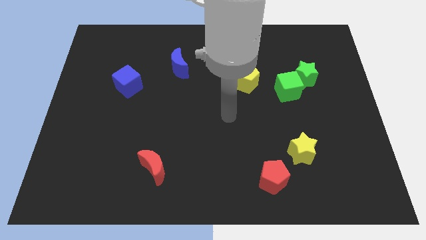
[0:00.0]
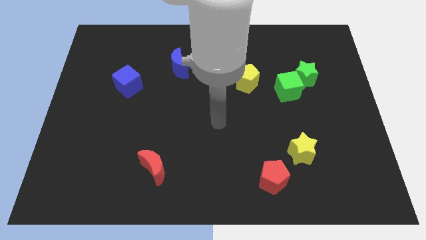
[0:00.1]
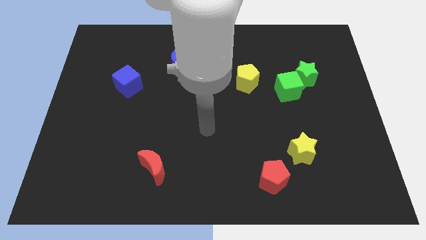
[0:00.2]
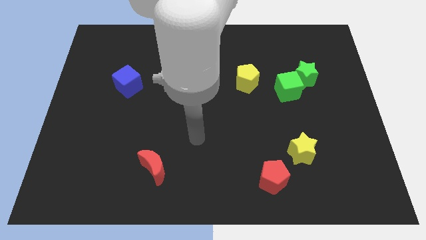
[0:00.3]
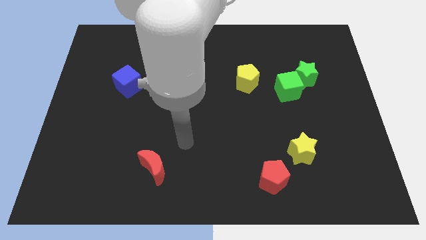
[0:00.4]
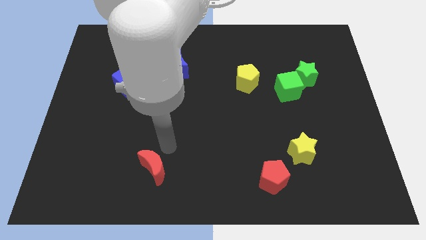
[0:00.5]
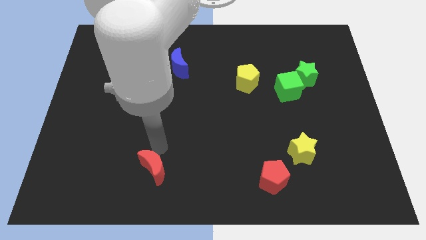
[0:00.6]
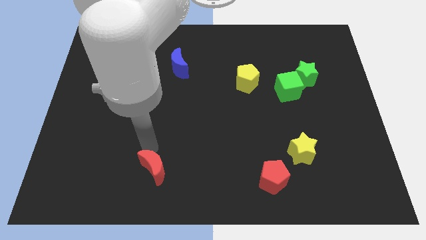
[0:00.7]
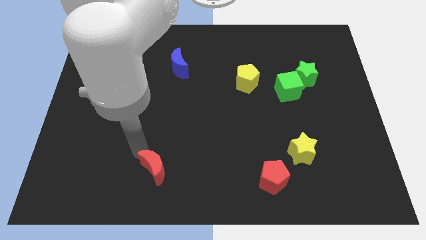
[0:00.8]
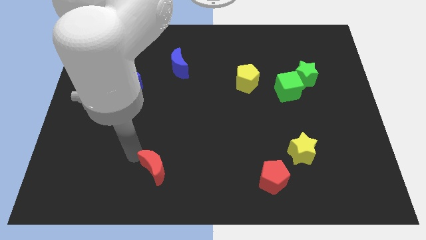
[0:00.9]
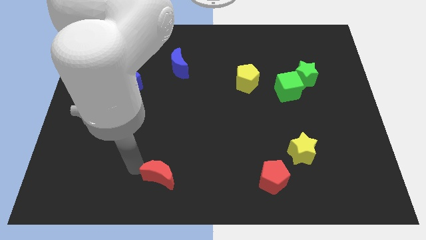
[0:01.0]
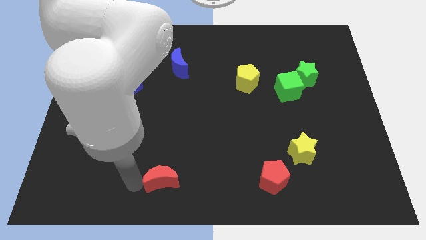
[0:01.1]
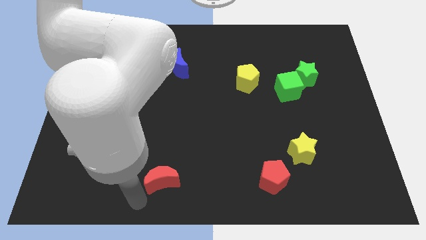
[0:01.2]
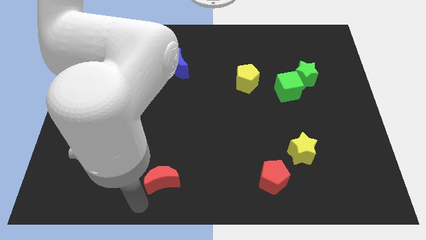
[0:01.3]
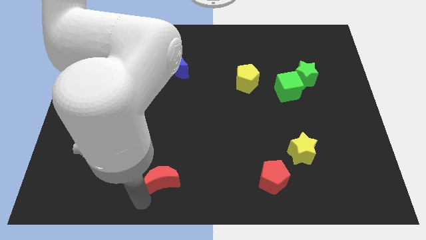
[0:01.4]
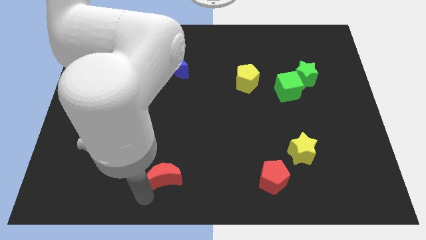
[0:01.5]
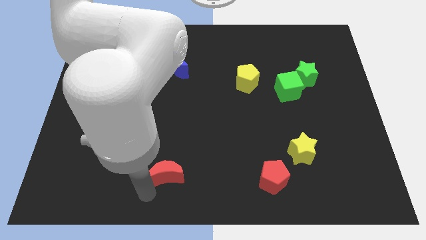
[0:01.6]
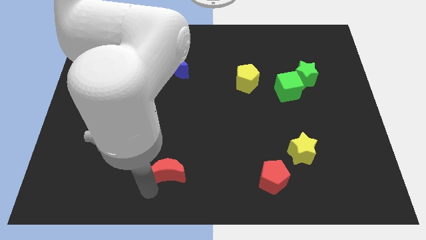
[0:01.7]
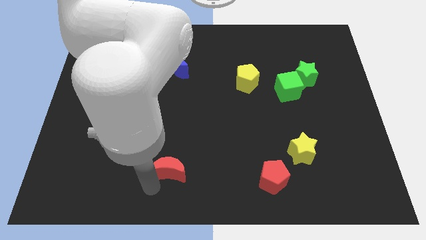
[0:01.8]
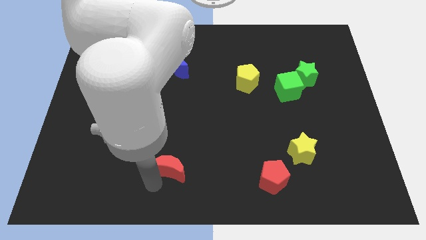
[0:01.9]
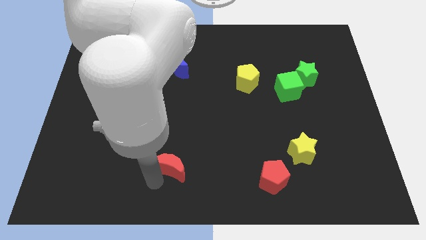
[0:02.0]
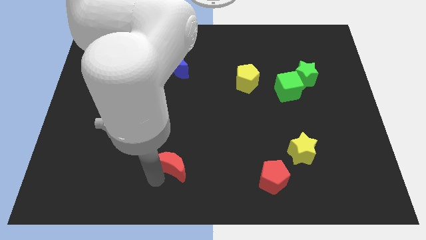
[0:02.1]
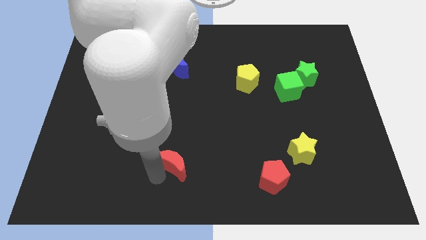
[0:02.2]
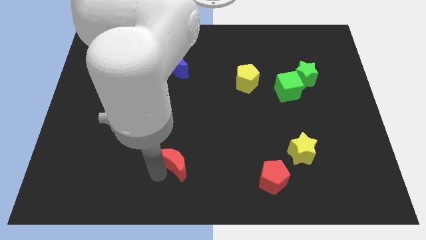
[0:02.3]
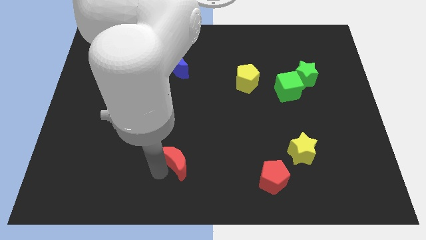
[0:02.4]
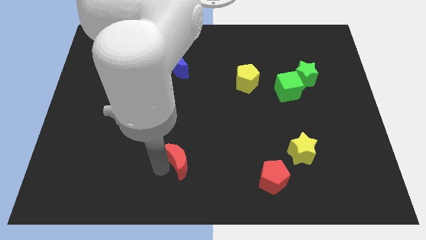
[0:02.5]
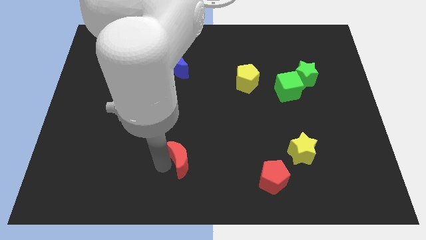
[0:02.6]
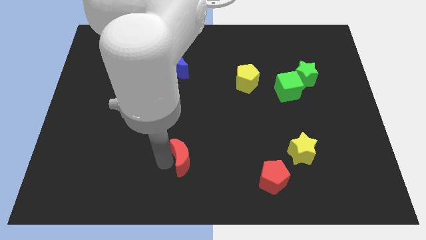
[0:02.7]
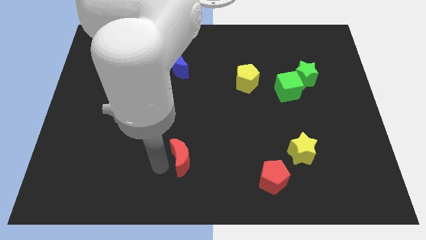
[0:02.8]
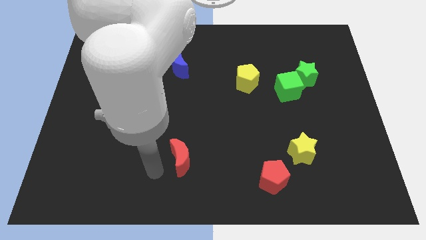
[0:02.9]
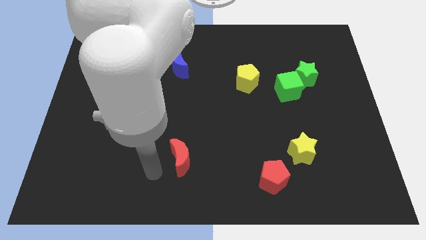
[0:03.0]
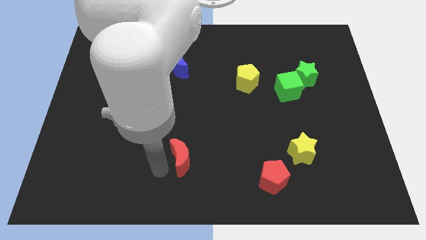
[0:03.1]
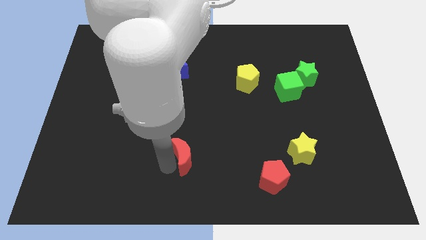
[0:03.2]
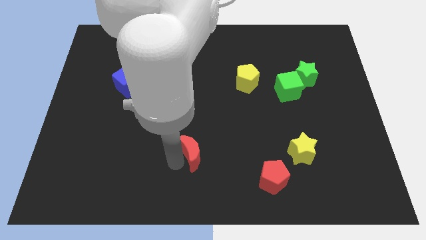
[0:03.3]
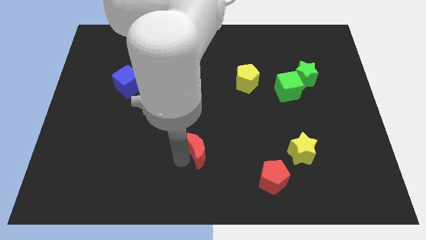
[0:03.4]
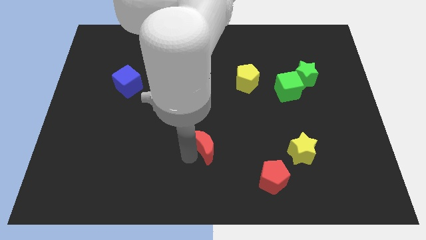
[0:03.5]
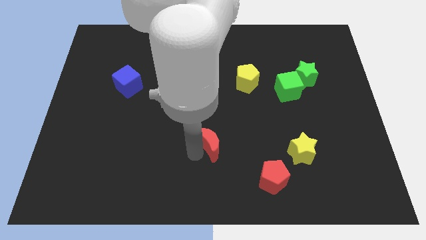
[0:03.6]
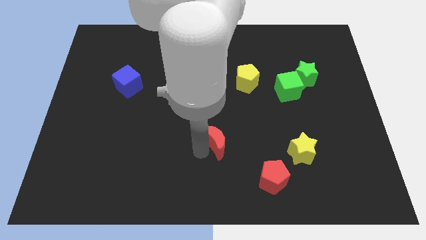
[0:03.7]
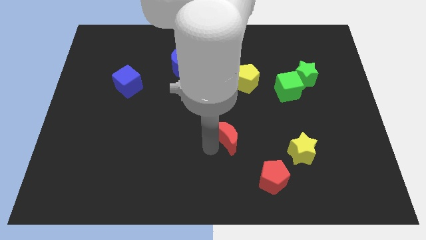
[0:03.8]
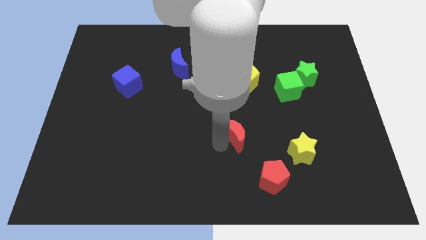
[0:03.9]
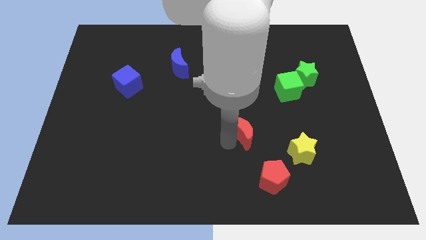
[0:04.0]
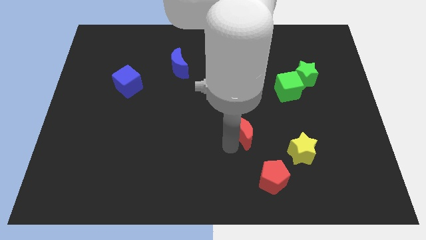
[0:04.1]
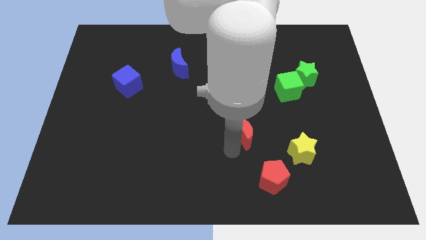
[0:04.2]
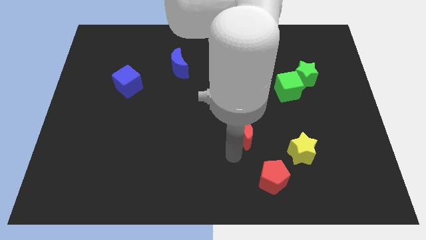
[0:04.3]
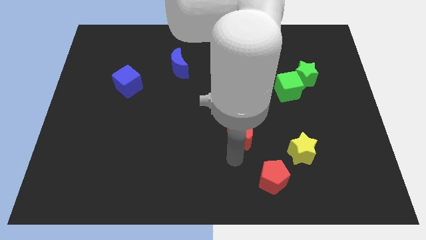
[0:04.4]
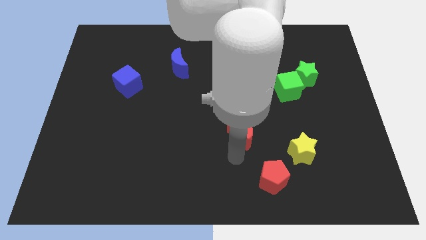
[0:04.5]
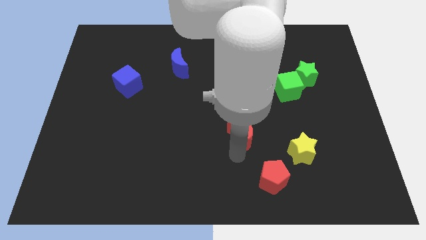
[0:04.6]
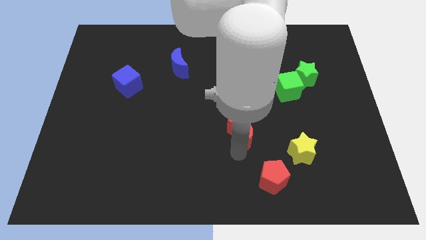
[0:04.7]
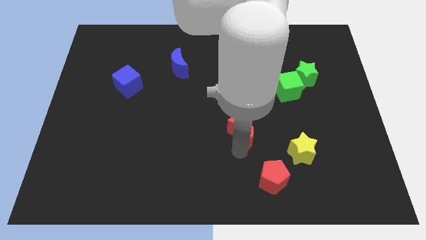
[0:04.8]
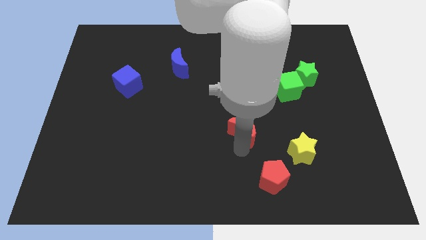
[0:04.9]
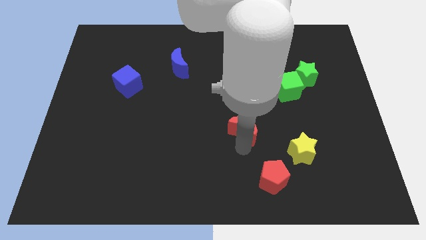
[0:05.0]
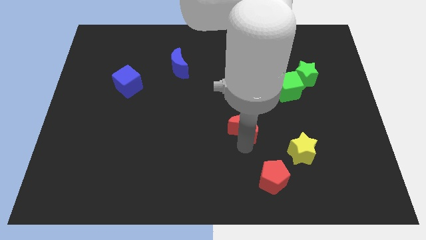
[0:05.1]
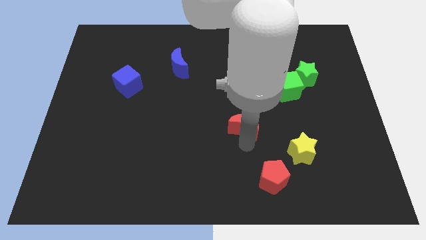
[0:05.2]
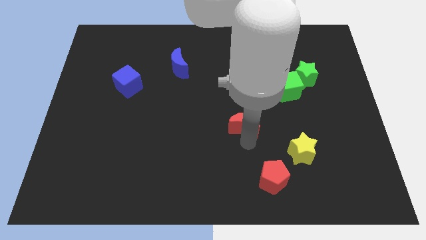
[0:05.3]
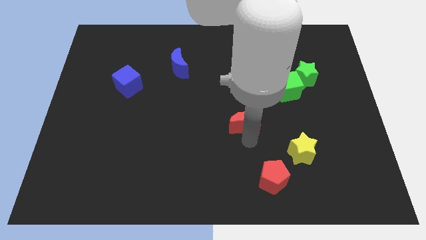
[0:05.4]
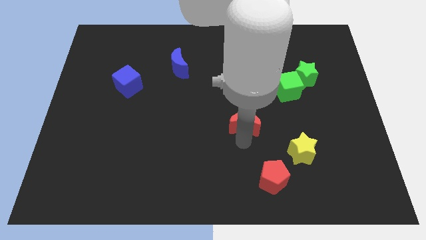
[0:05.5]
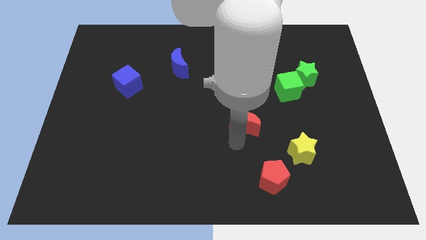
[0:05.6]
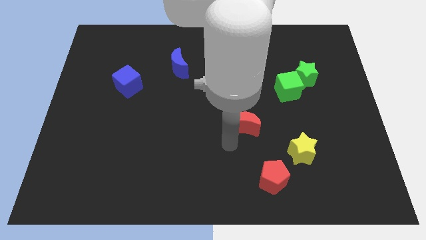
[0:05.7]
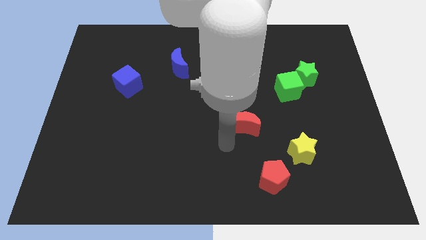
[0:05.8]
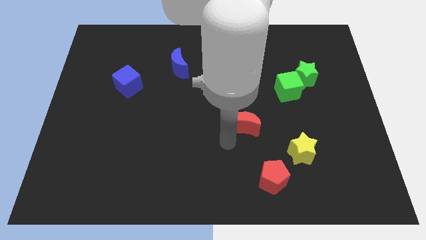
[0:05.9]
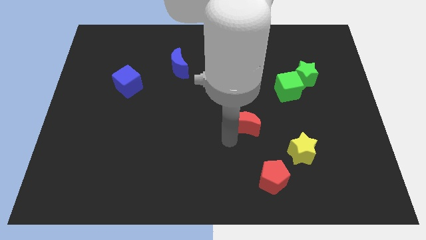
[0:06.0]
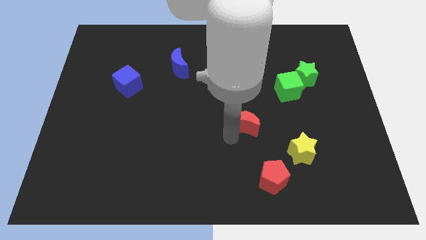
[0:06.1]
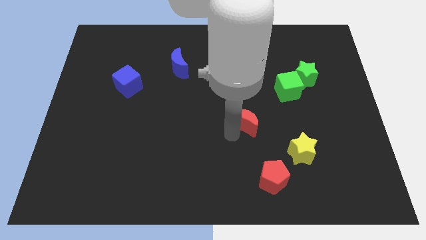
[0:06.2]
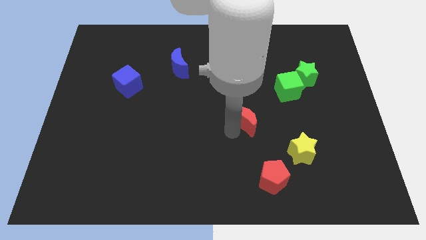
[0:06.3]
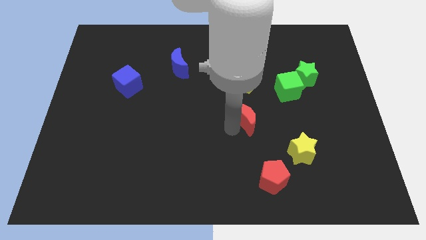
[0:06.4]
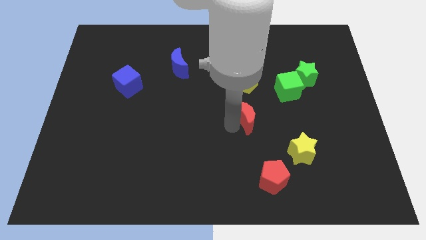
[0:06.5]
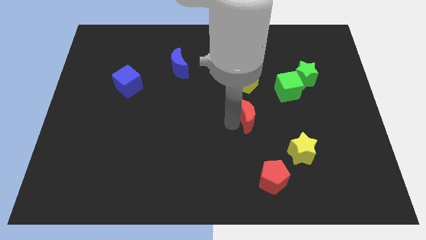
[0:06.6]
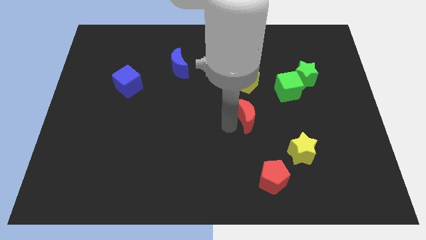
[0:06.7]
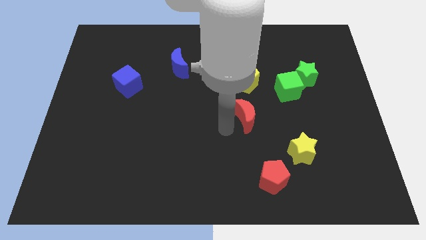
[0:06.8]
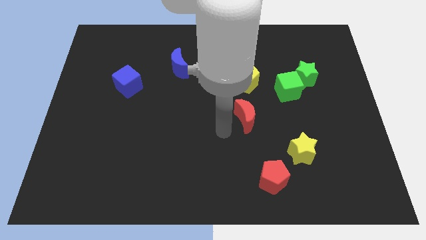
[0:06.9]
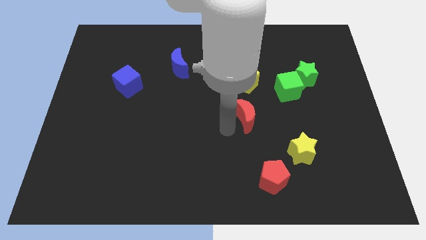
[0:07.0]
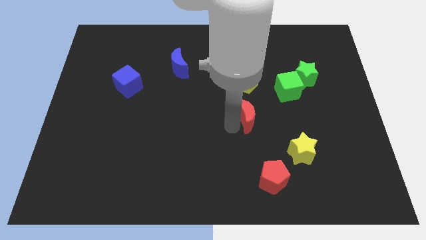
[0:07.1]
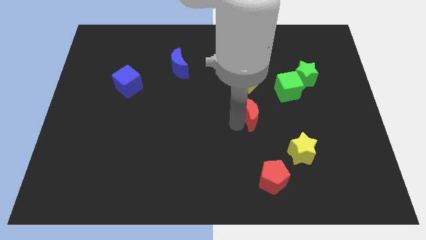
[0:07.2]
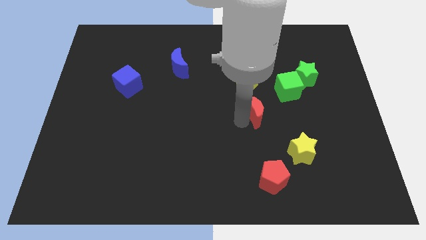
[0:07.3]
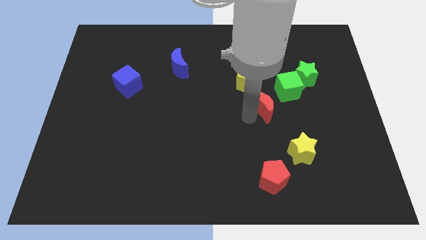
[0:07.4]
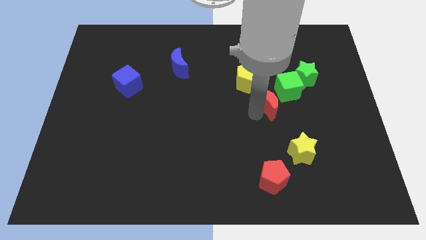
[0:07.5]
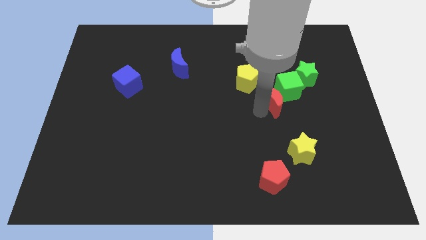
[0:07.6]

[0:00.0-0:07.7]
put the red moon close to the green cube
